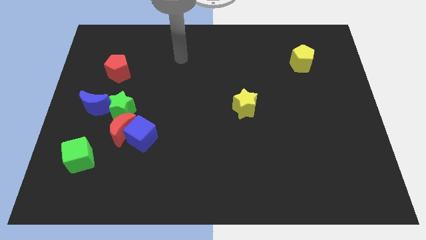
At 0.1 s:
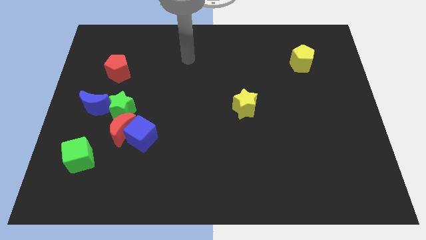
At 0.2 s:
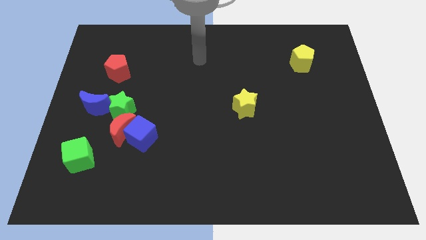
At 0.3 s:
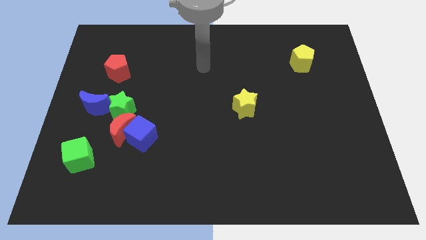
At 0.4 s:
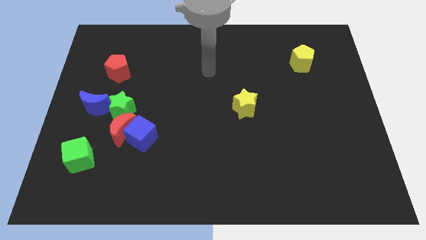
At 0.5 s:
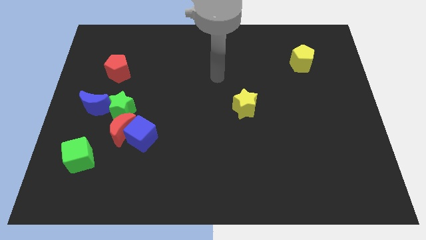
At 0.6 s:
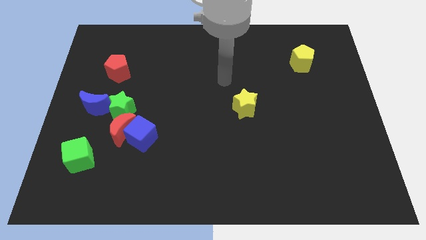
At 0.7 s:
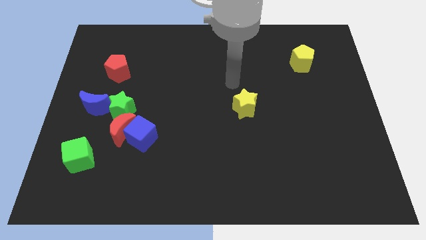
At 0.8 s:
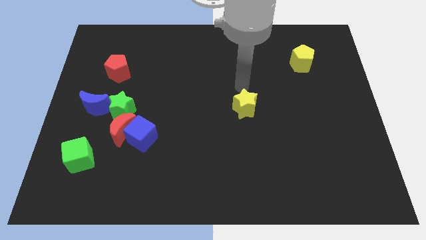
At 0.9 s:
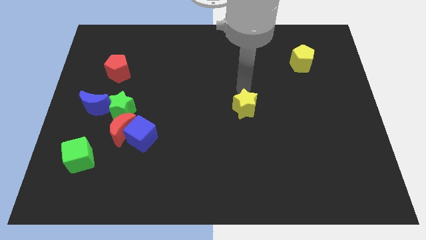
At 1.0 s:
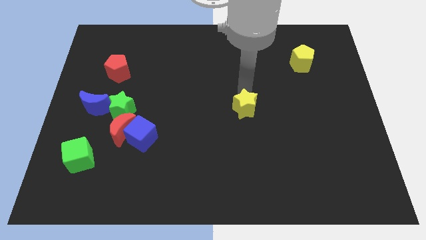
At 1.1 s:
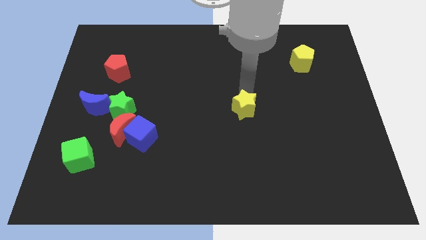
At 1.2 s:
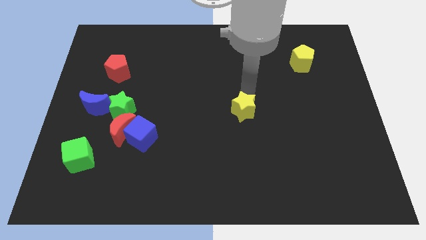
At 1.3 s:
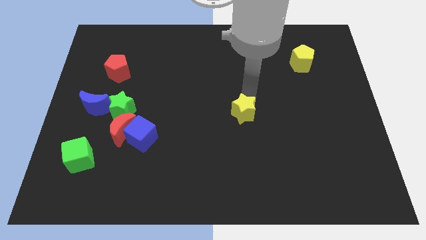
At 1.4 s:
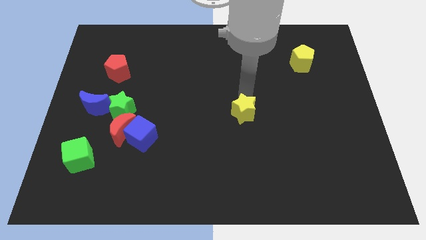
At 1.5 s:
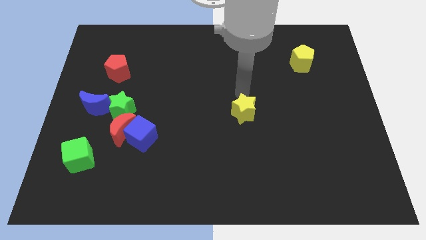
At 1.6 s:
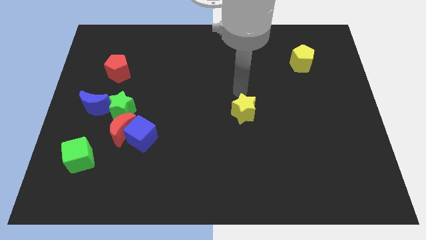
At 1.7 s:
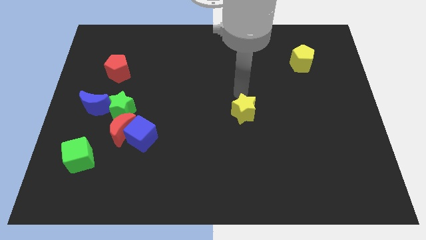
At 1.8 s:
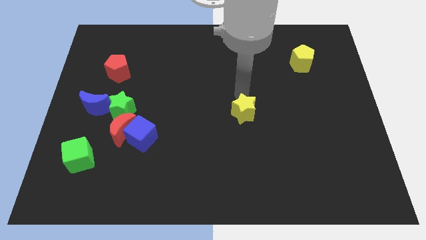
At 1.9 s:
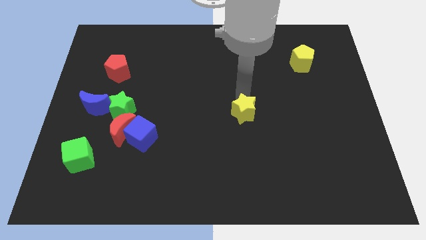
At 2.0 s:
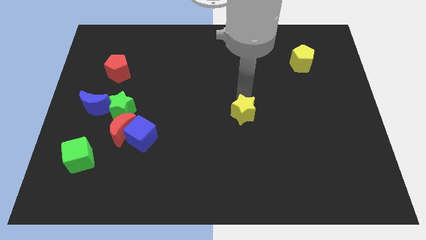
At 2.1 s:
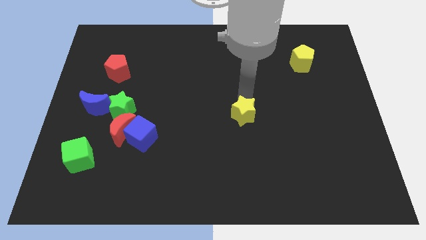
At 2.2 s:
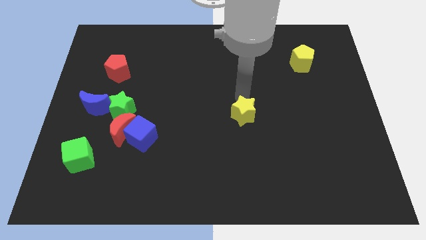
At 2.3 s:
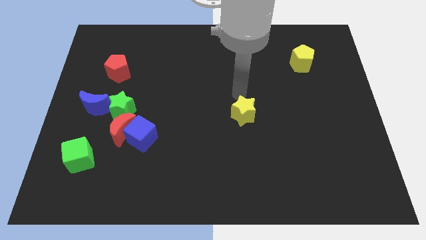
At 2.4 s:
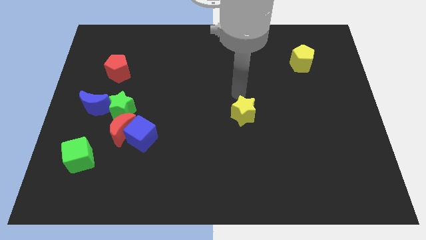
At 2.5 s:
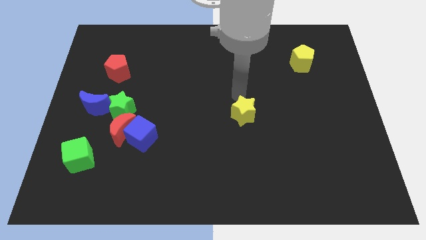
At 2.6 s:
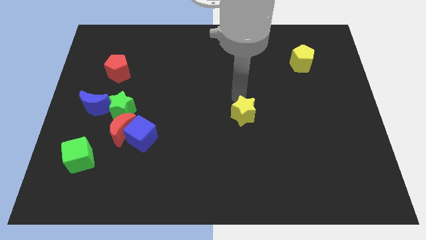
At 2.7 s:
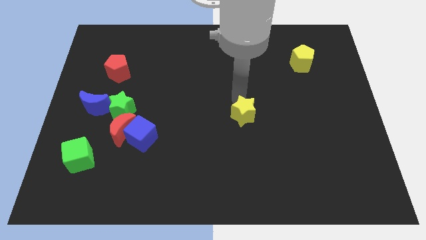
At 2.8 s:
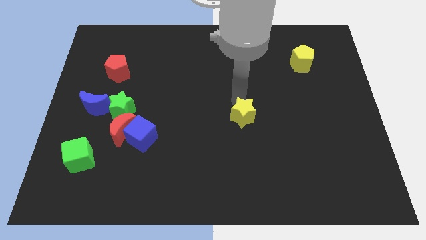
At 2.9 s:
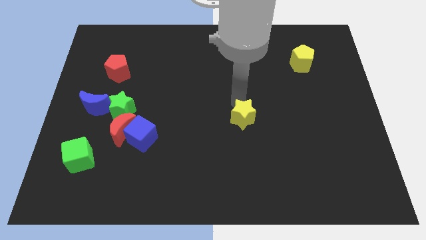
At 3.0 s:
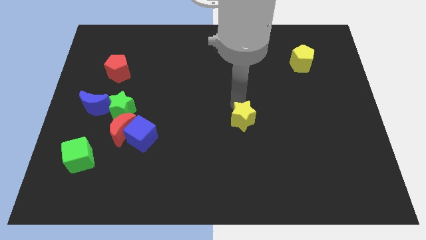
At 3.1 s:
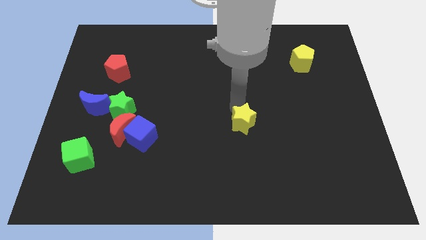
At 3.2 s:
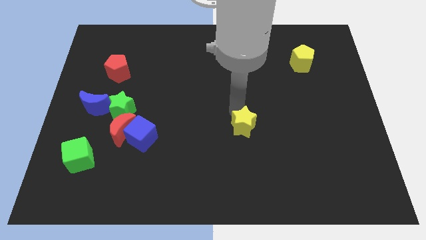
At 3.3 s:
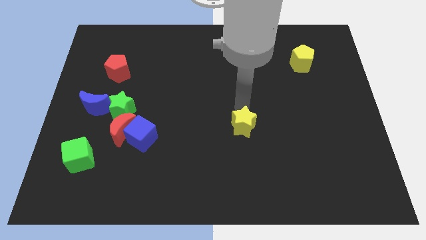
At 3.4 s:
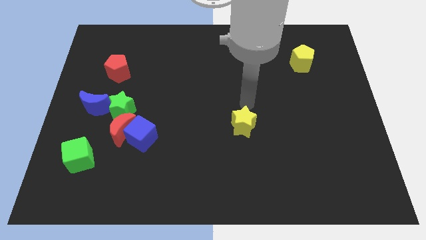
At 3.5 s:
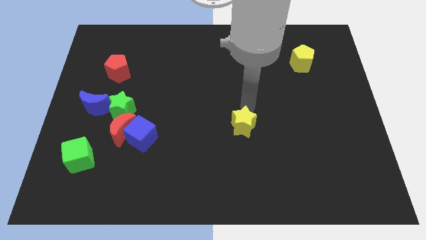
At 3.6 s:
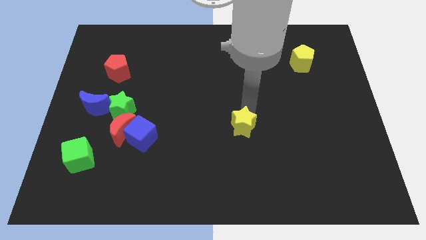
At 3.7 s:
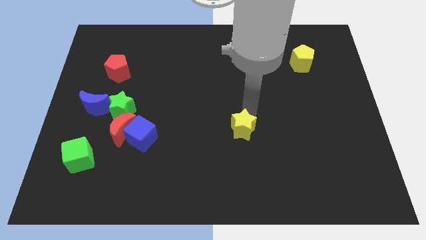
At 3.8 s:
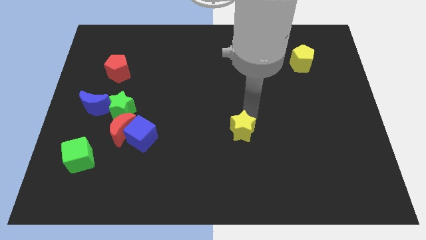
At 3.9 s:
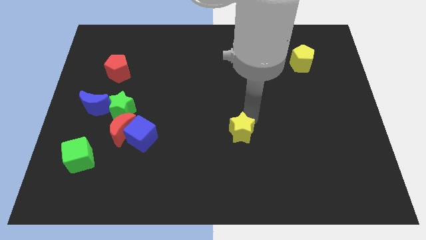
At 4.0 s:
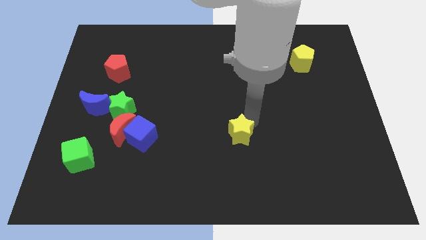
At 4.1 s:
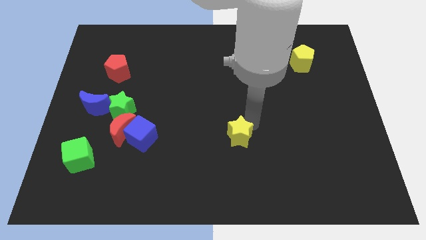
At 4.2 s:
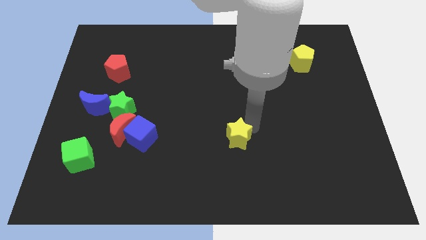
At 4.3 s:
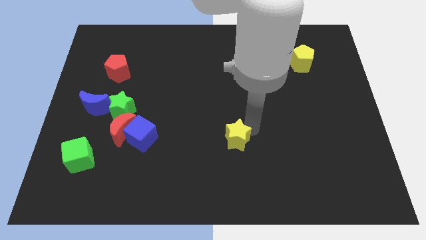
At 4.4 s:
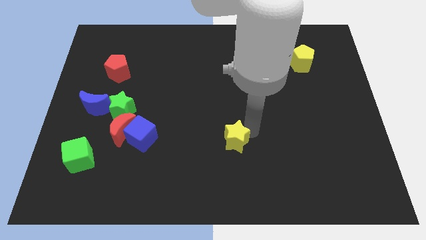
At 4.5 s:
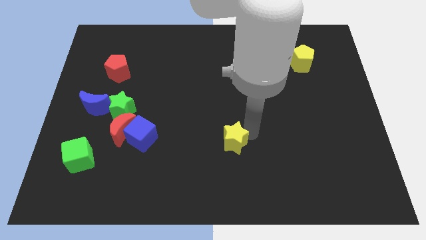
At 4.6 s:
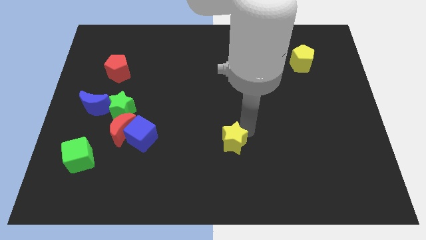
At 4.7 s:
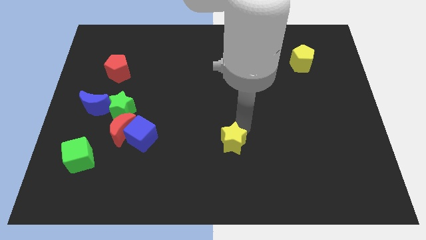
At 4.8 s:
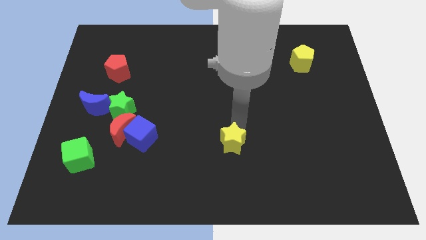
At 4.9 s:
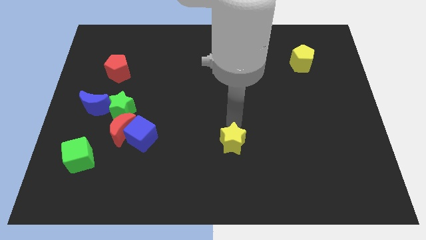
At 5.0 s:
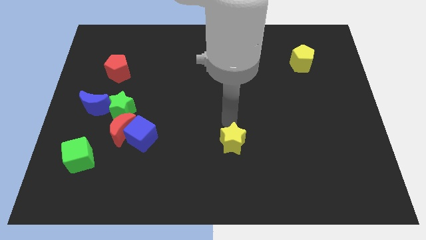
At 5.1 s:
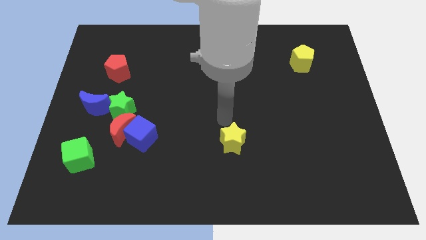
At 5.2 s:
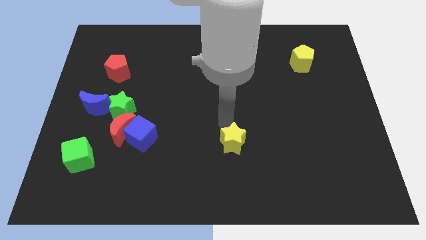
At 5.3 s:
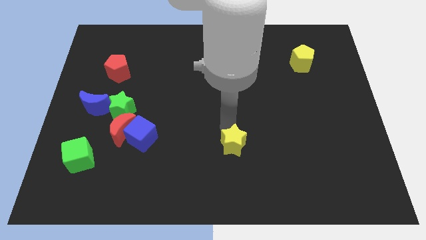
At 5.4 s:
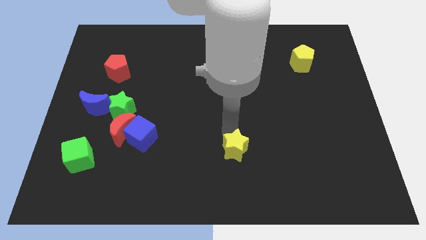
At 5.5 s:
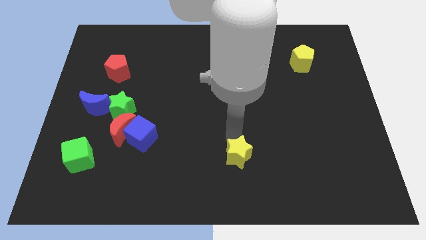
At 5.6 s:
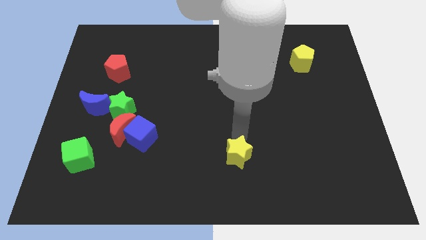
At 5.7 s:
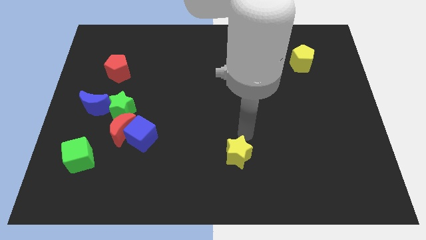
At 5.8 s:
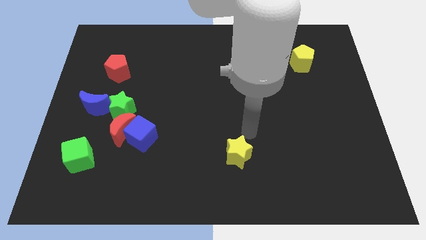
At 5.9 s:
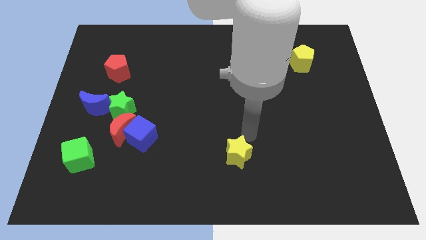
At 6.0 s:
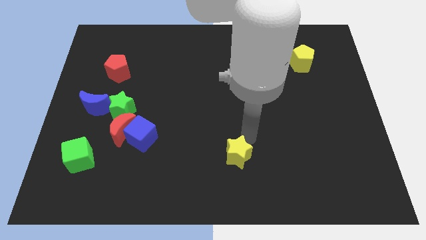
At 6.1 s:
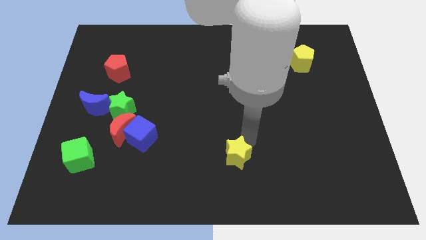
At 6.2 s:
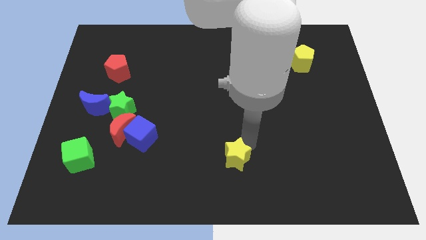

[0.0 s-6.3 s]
put the yellow star to the bottom
